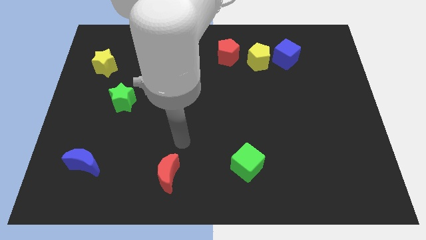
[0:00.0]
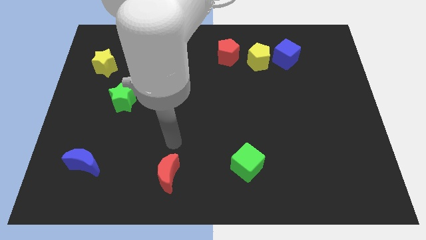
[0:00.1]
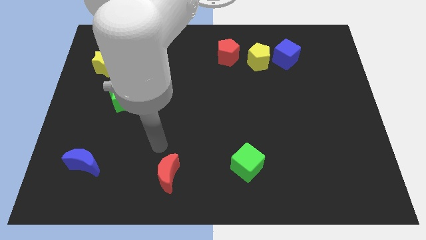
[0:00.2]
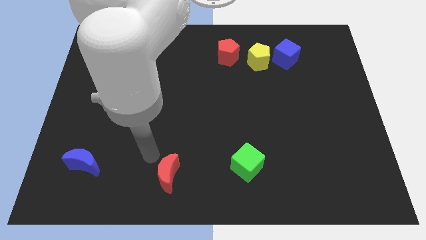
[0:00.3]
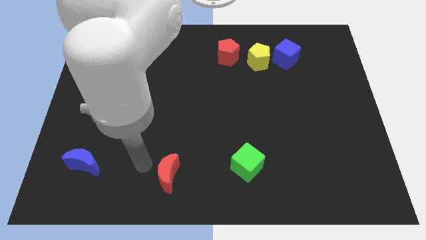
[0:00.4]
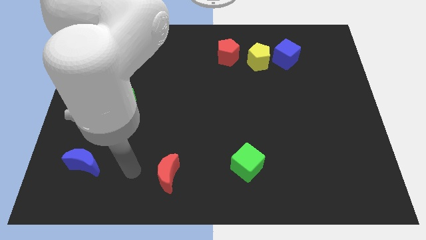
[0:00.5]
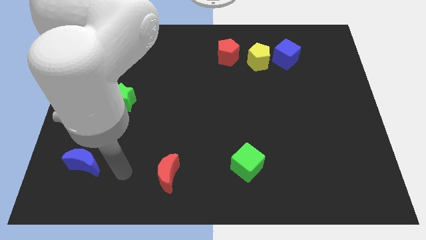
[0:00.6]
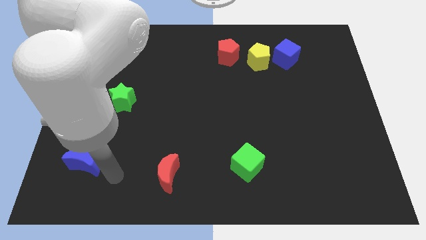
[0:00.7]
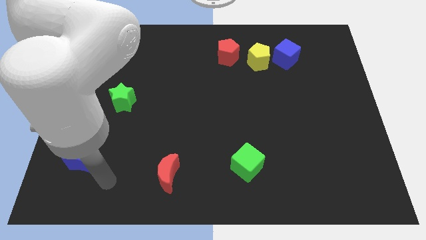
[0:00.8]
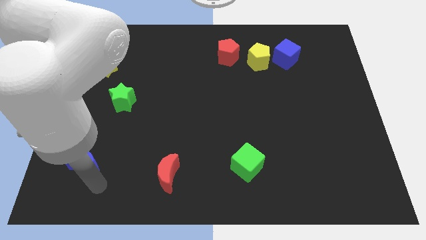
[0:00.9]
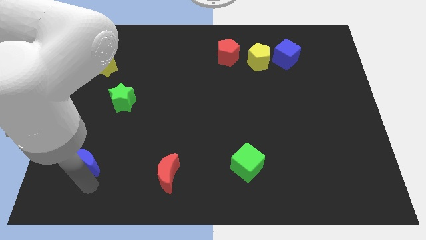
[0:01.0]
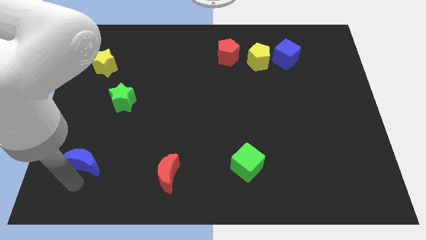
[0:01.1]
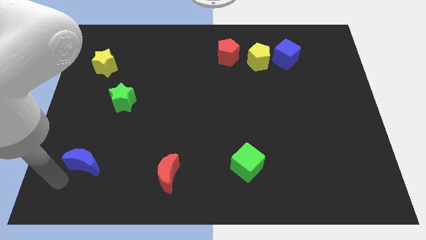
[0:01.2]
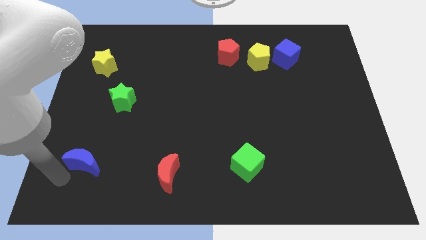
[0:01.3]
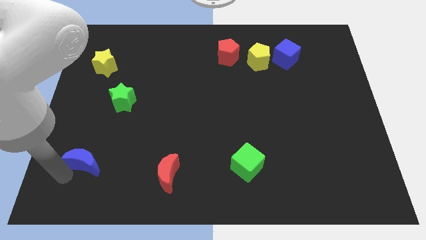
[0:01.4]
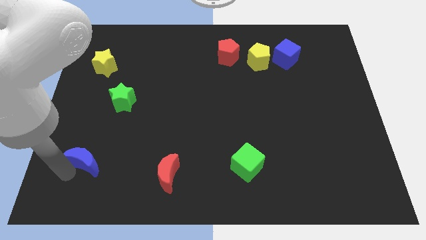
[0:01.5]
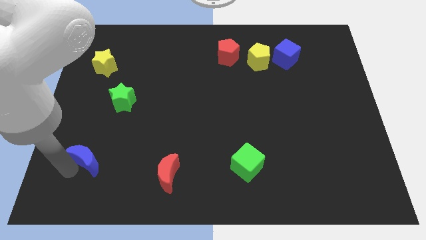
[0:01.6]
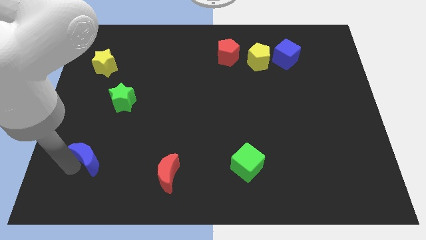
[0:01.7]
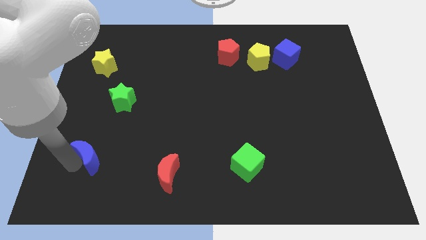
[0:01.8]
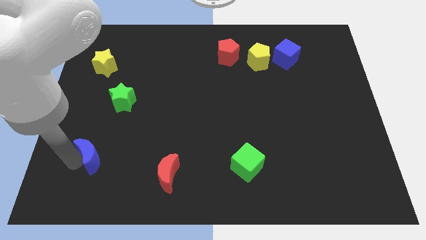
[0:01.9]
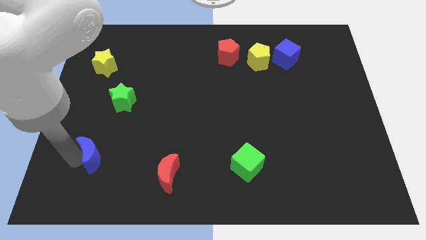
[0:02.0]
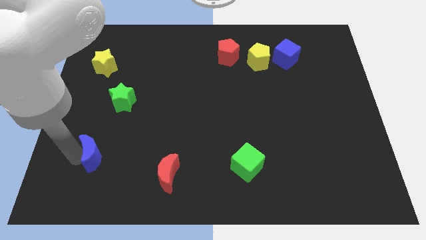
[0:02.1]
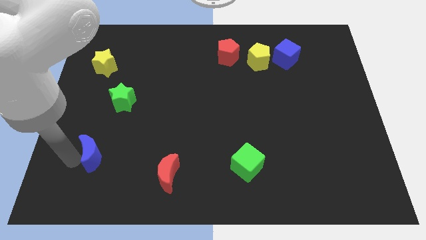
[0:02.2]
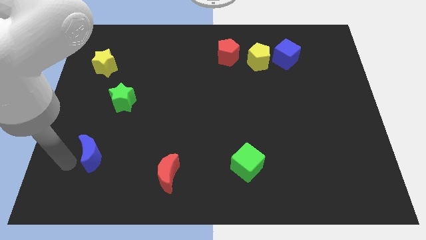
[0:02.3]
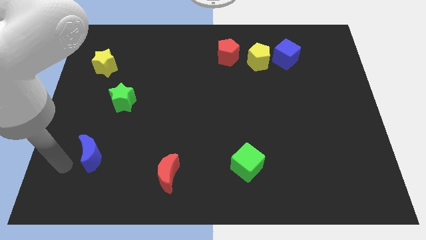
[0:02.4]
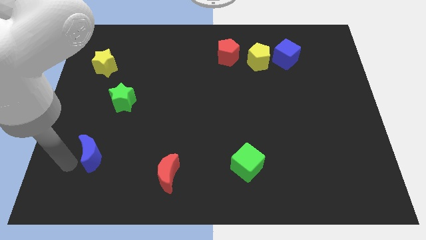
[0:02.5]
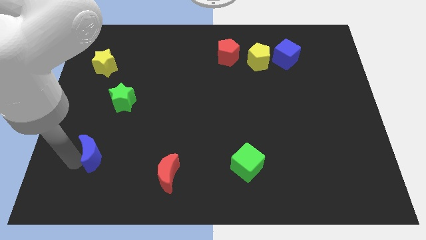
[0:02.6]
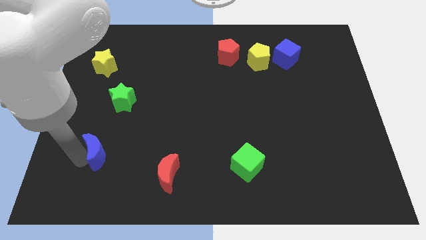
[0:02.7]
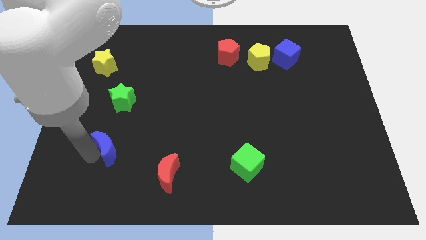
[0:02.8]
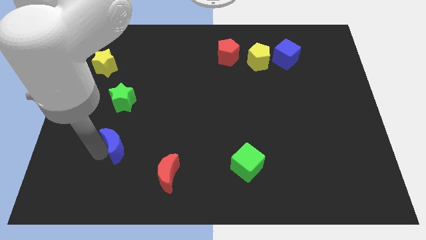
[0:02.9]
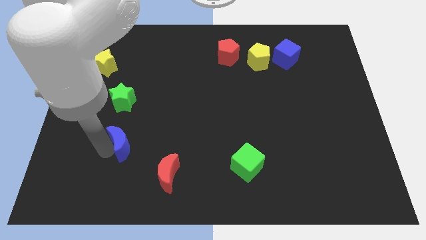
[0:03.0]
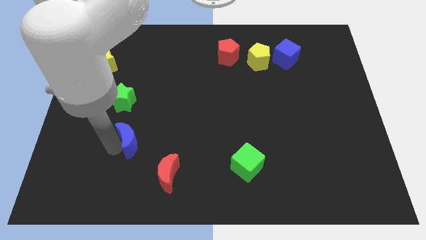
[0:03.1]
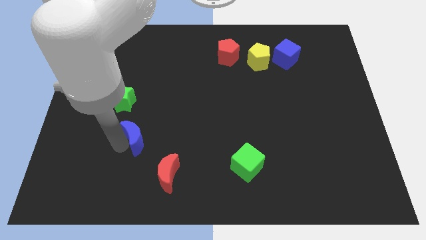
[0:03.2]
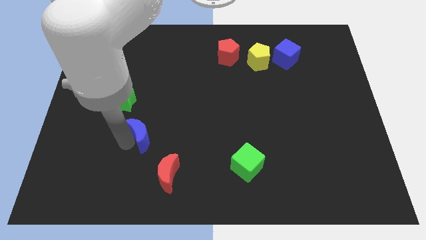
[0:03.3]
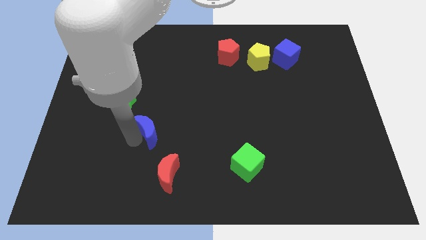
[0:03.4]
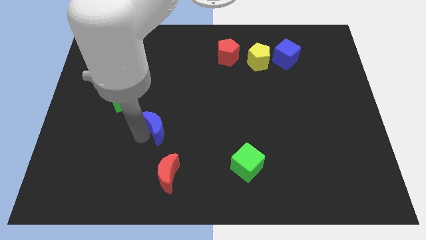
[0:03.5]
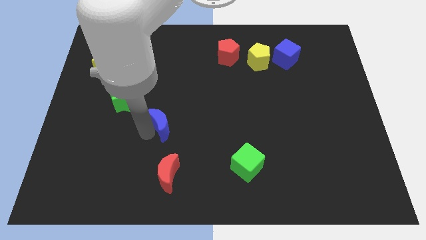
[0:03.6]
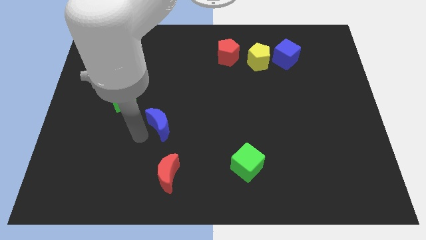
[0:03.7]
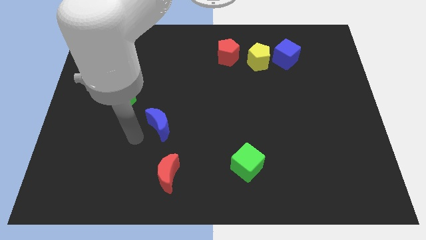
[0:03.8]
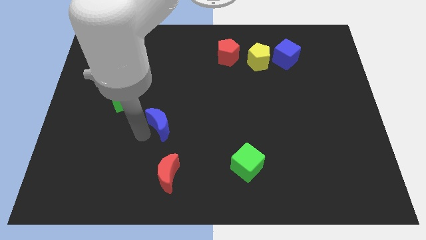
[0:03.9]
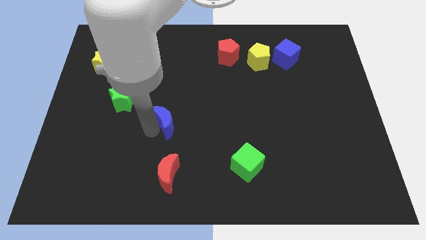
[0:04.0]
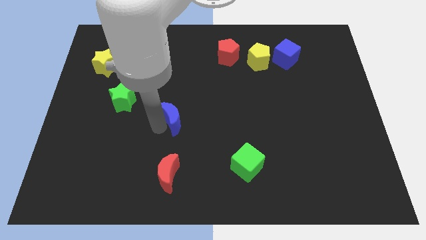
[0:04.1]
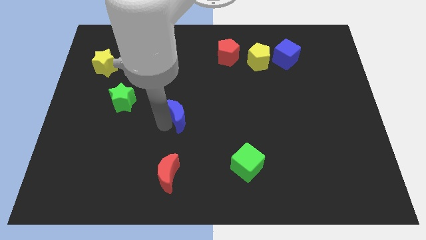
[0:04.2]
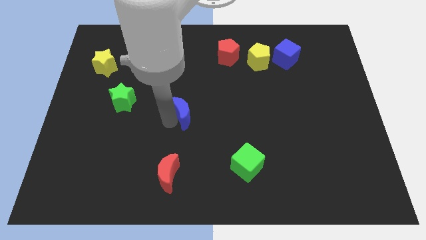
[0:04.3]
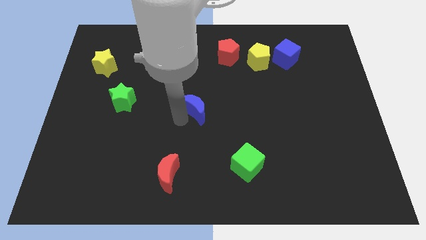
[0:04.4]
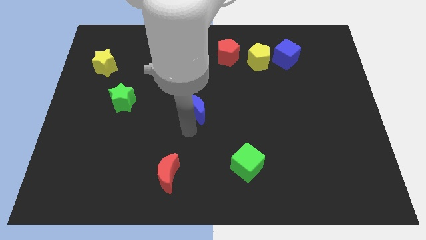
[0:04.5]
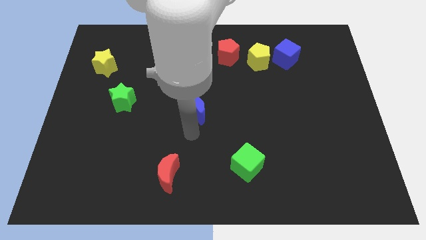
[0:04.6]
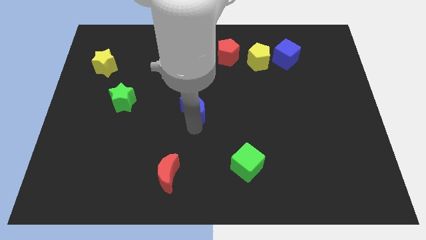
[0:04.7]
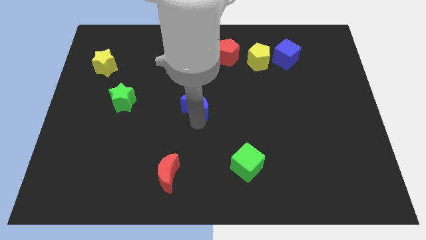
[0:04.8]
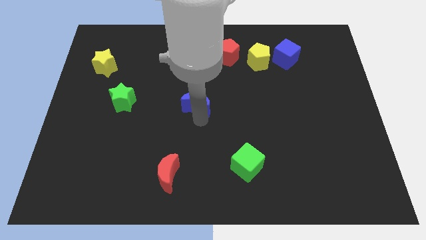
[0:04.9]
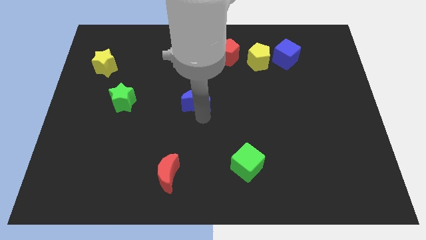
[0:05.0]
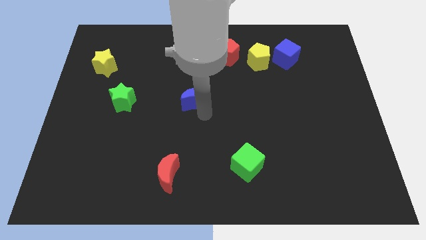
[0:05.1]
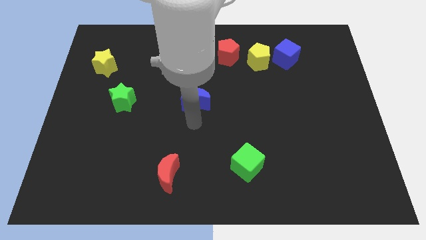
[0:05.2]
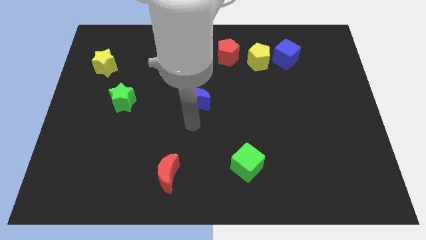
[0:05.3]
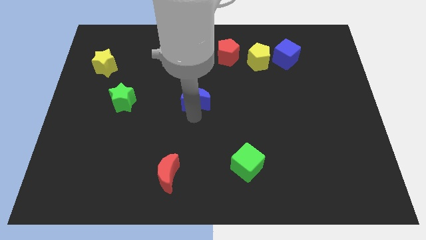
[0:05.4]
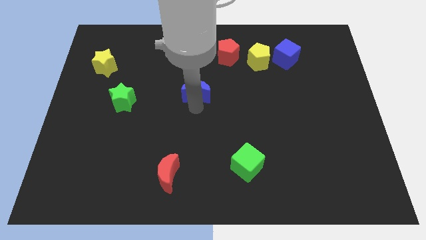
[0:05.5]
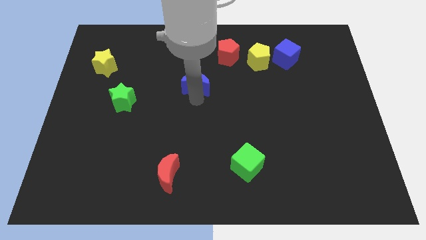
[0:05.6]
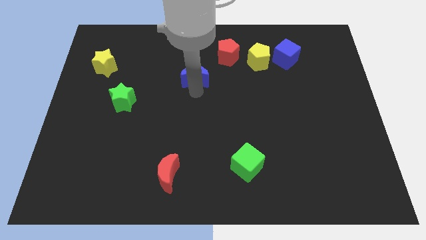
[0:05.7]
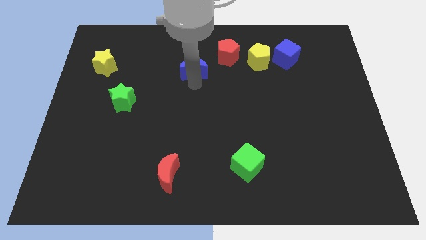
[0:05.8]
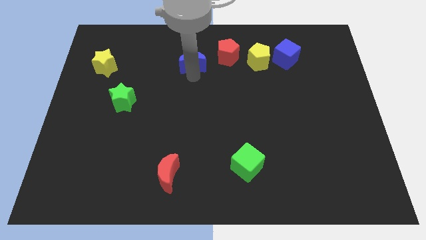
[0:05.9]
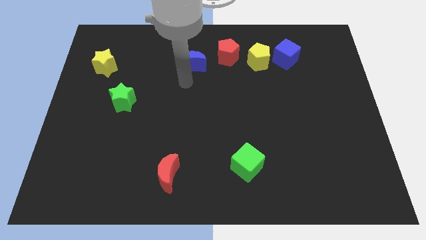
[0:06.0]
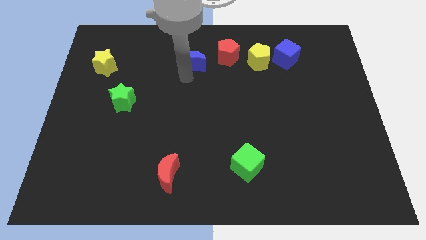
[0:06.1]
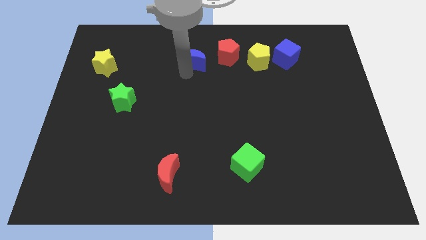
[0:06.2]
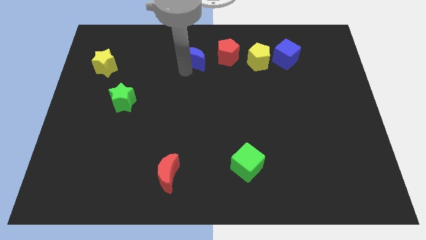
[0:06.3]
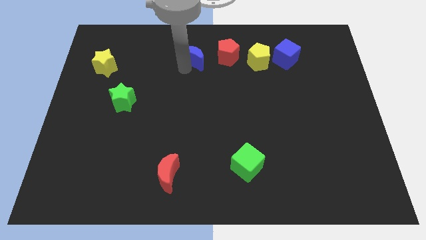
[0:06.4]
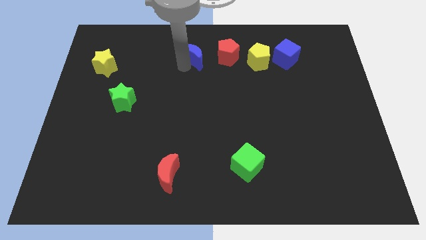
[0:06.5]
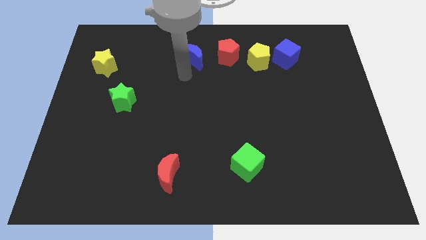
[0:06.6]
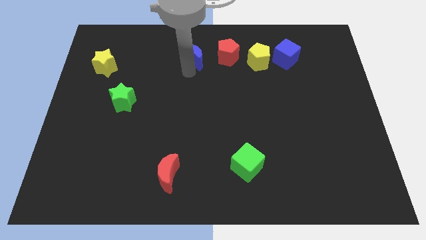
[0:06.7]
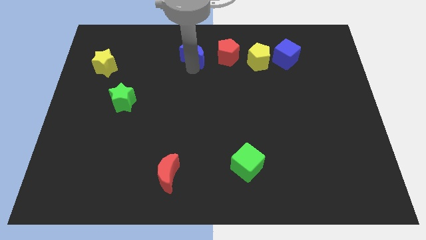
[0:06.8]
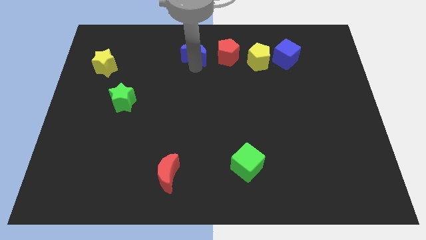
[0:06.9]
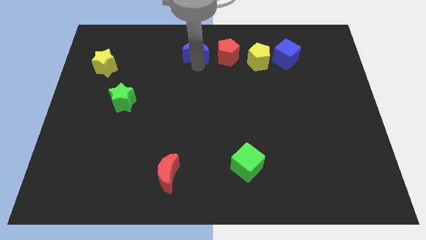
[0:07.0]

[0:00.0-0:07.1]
slide the blue moon to the top
